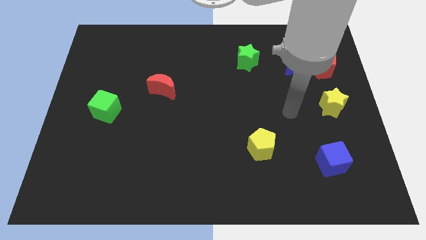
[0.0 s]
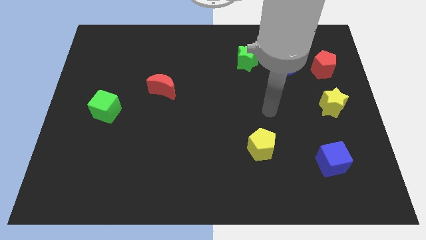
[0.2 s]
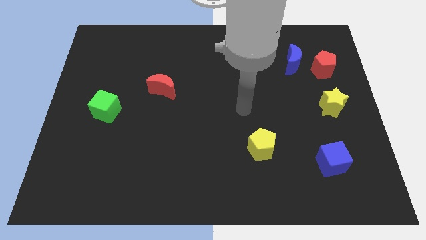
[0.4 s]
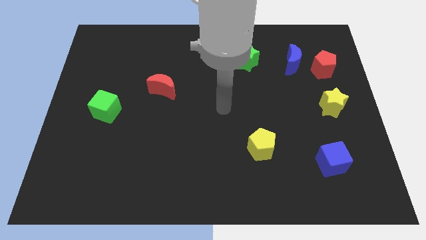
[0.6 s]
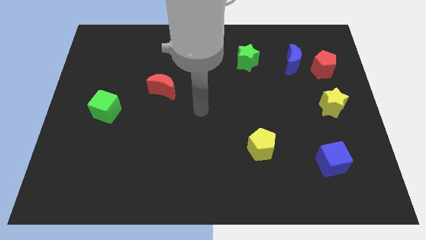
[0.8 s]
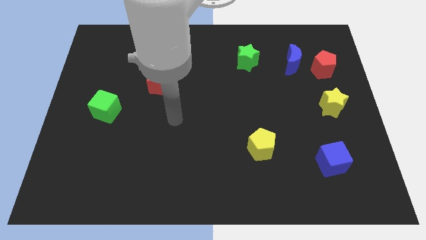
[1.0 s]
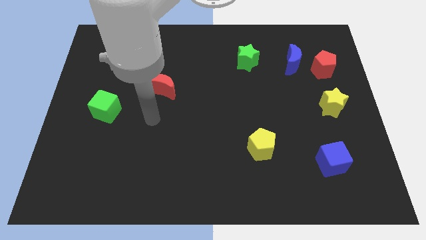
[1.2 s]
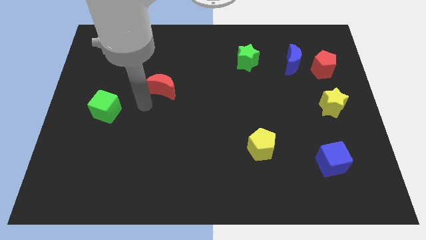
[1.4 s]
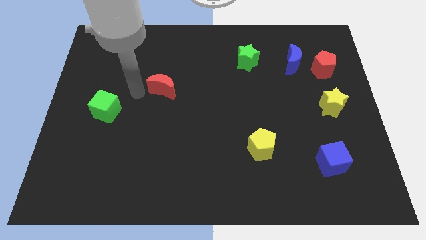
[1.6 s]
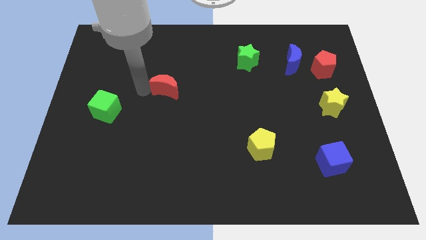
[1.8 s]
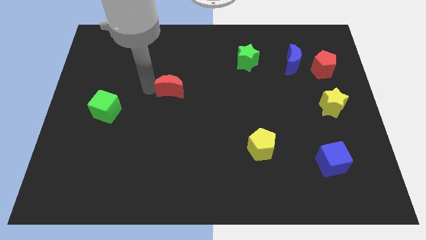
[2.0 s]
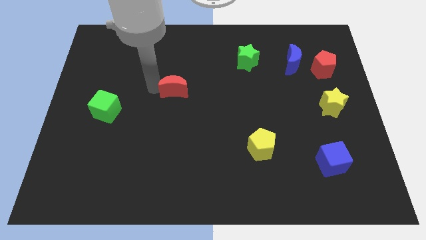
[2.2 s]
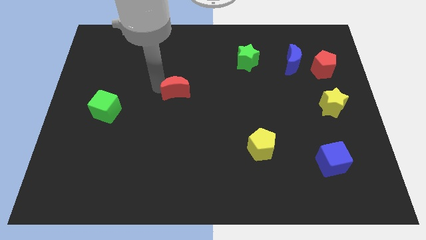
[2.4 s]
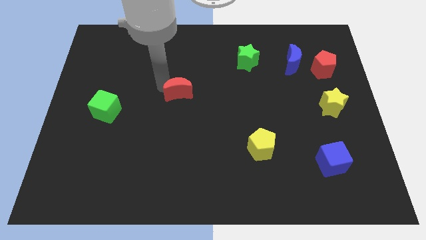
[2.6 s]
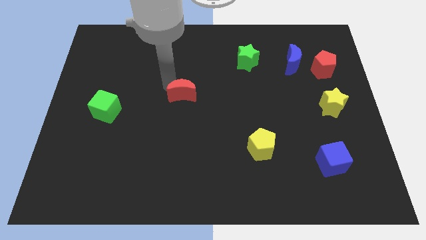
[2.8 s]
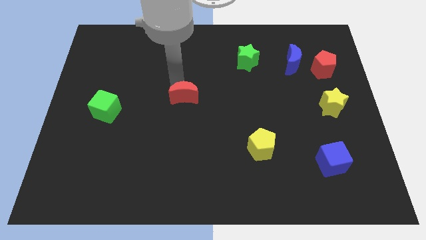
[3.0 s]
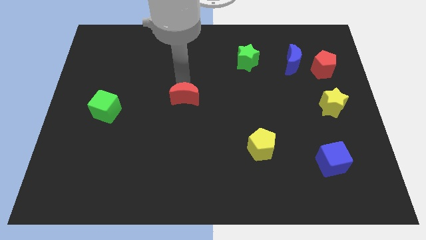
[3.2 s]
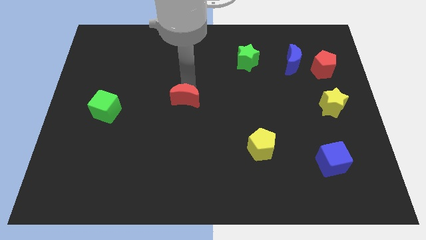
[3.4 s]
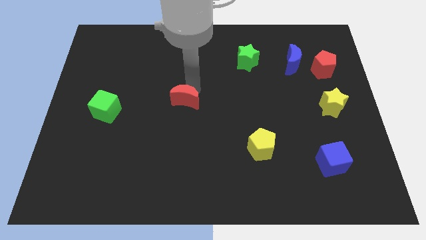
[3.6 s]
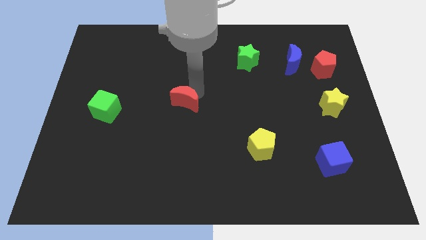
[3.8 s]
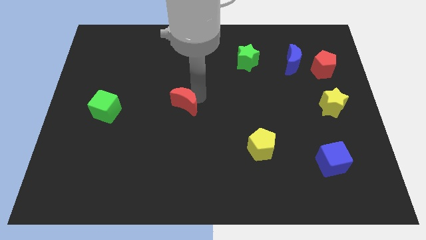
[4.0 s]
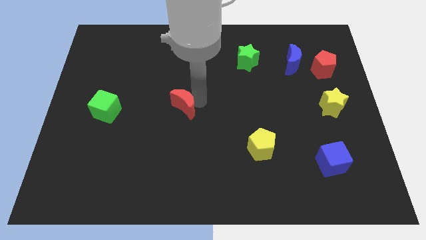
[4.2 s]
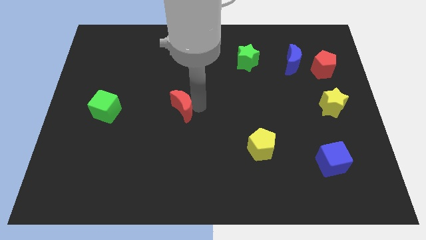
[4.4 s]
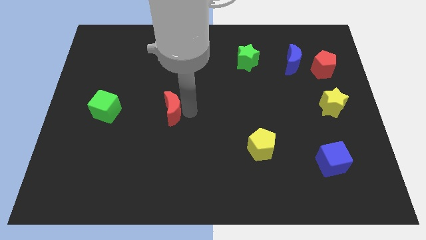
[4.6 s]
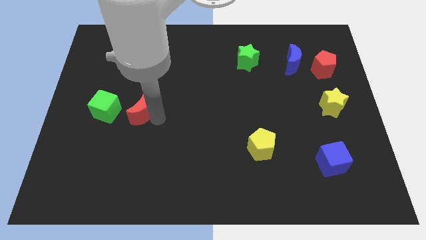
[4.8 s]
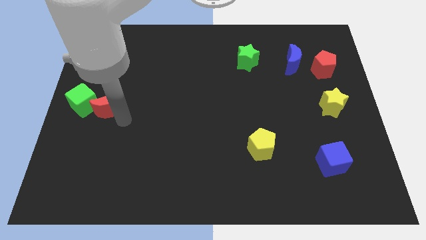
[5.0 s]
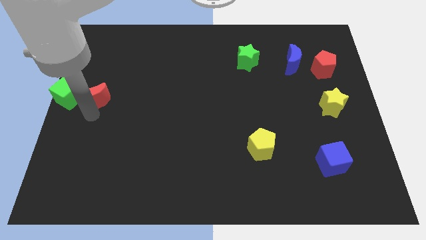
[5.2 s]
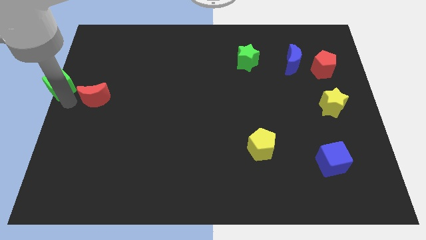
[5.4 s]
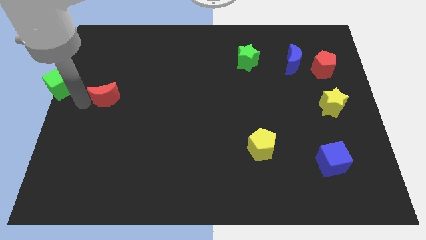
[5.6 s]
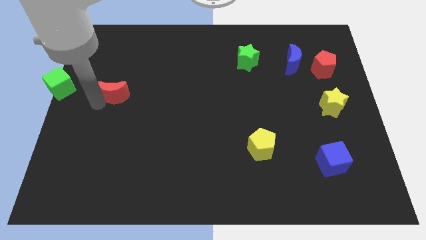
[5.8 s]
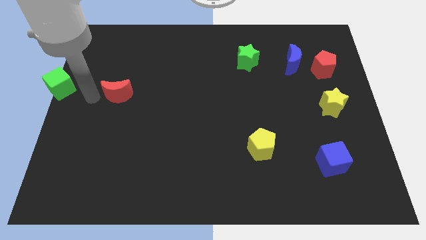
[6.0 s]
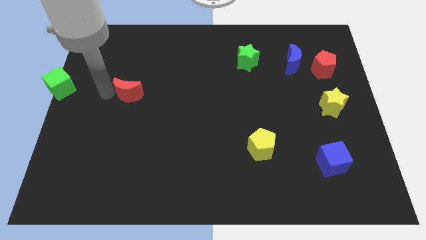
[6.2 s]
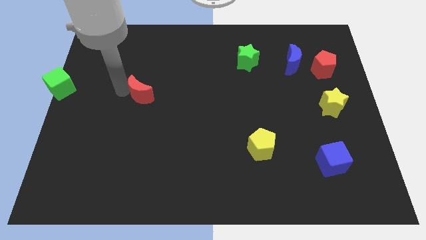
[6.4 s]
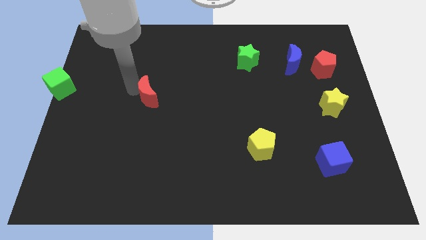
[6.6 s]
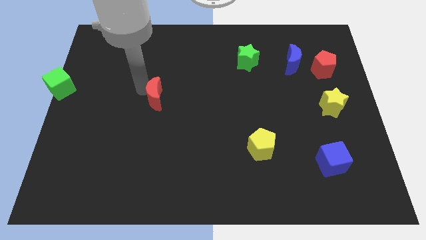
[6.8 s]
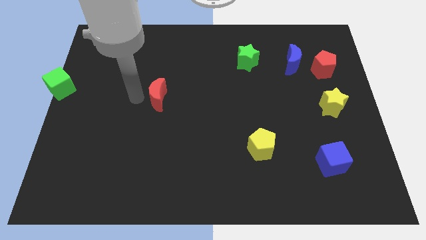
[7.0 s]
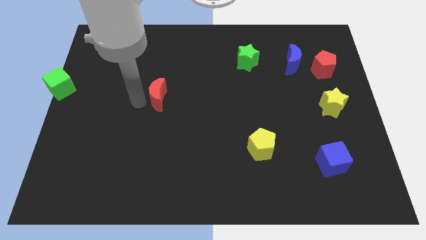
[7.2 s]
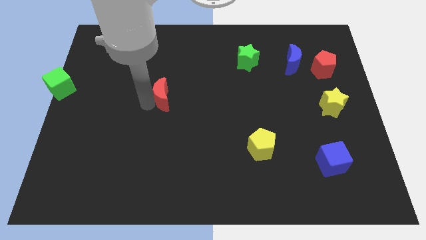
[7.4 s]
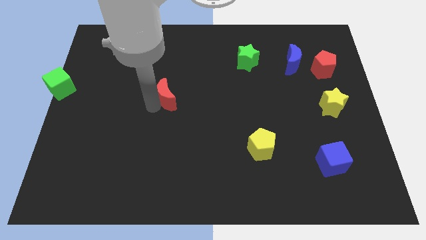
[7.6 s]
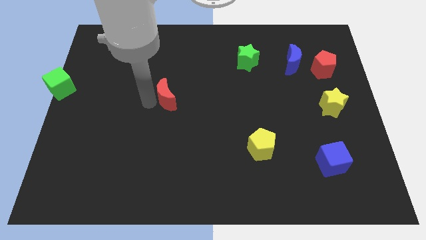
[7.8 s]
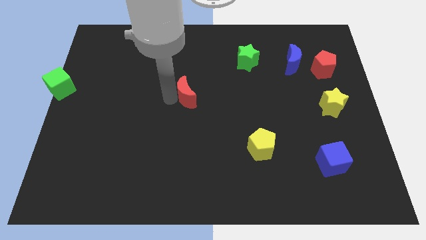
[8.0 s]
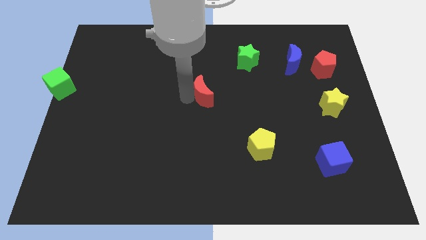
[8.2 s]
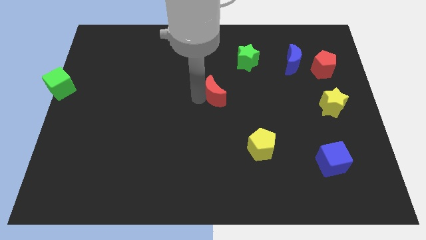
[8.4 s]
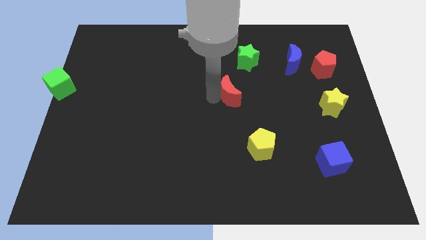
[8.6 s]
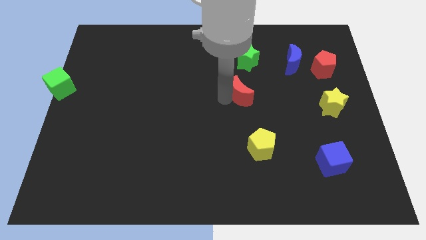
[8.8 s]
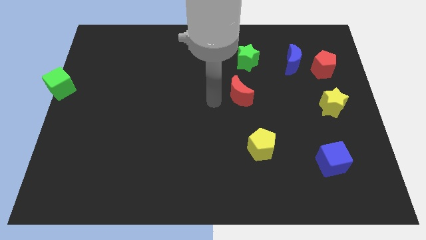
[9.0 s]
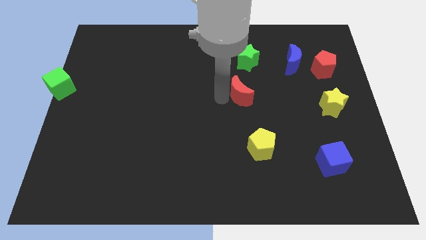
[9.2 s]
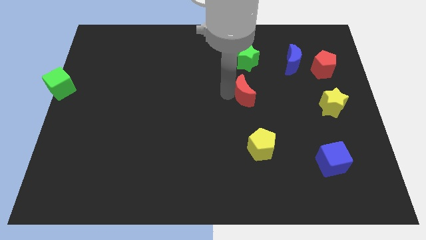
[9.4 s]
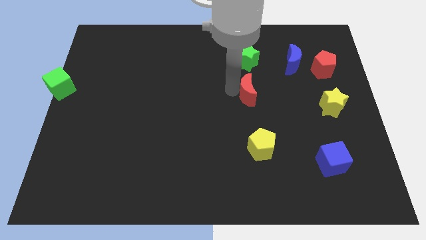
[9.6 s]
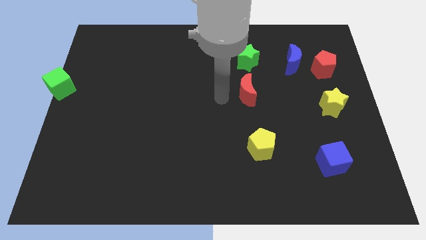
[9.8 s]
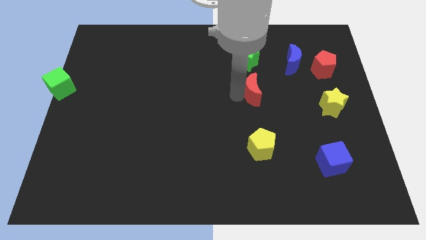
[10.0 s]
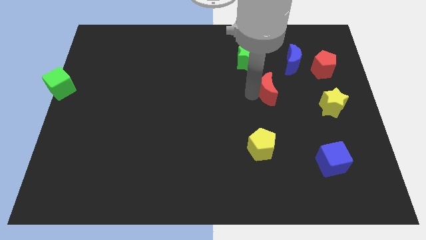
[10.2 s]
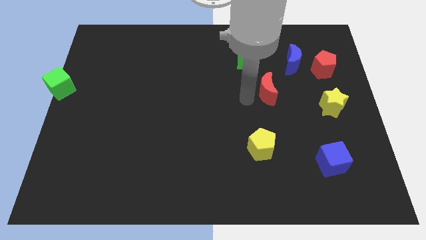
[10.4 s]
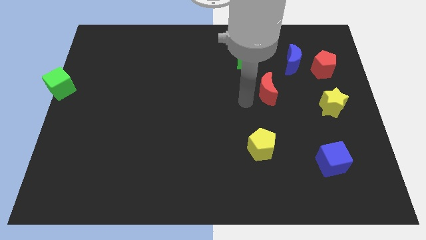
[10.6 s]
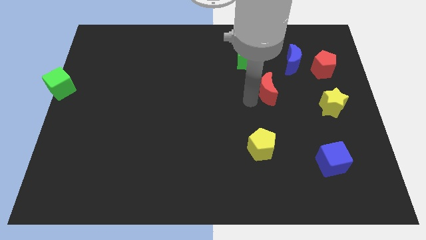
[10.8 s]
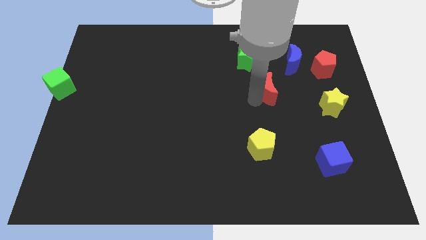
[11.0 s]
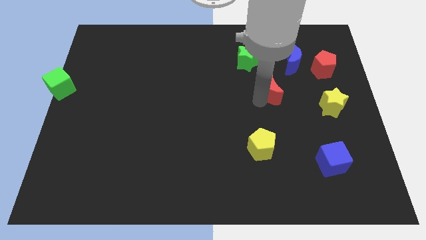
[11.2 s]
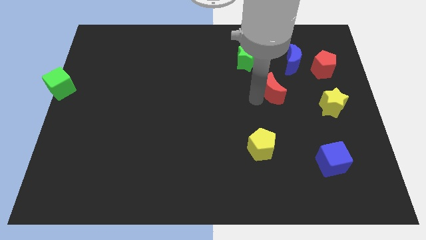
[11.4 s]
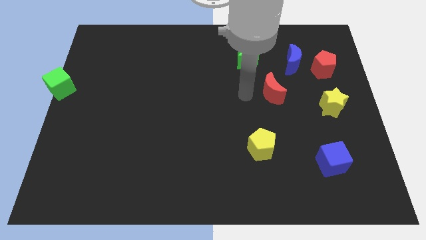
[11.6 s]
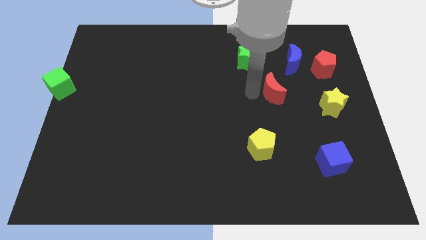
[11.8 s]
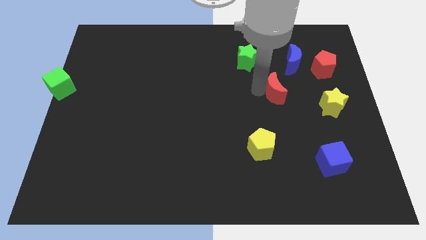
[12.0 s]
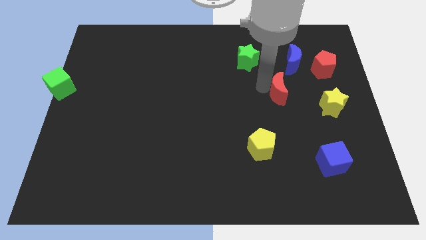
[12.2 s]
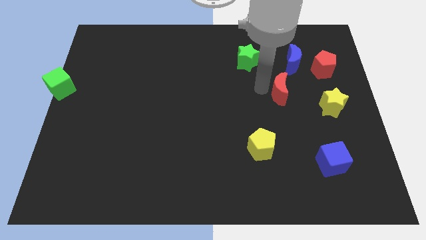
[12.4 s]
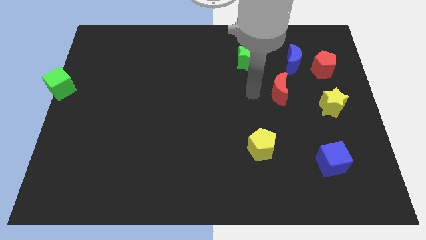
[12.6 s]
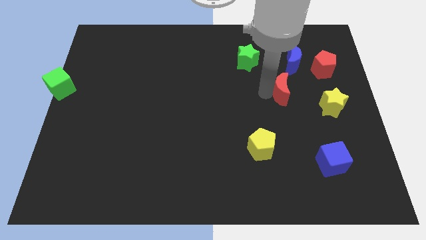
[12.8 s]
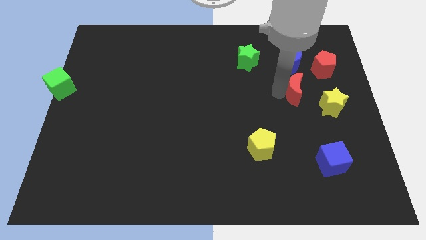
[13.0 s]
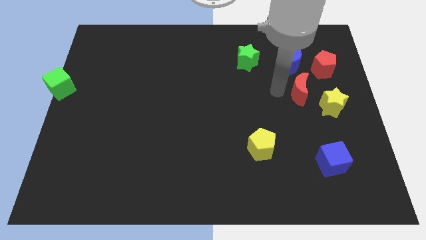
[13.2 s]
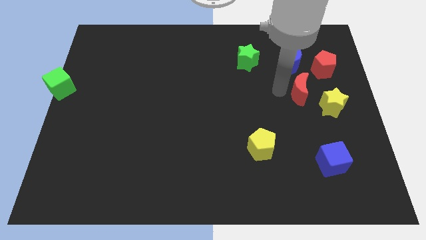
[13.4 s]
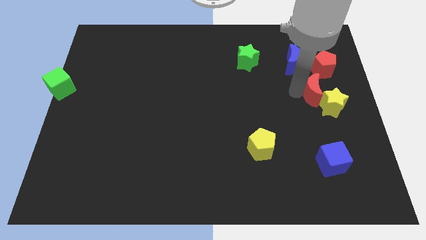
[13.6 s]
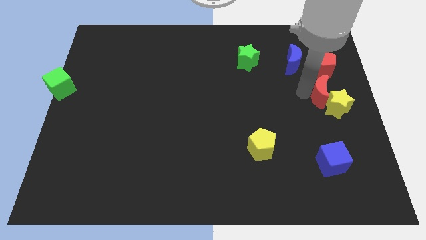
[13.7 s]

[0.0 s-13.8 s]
push the red moon to the right side of the board
